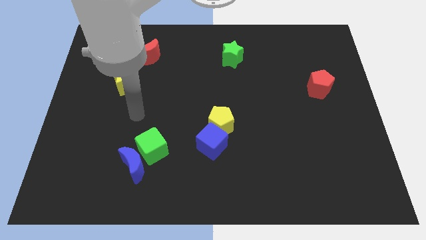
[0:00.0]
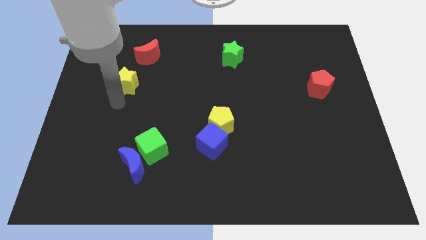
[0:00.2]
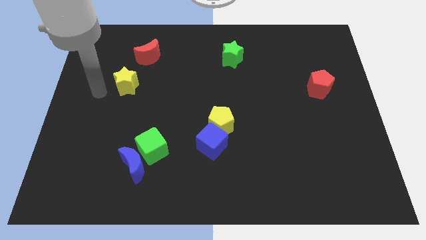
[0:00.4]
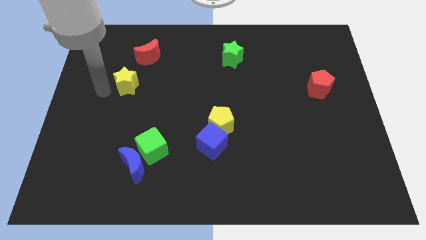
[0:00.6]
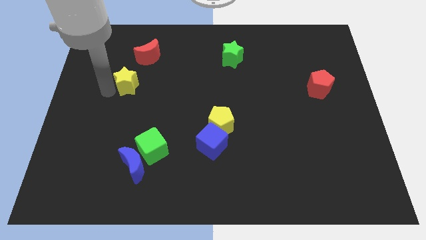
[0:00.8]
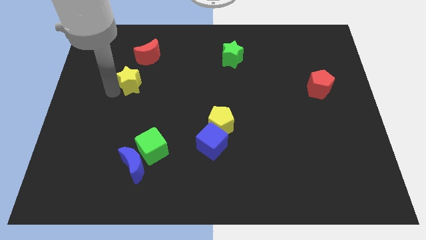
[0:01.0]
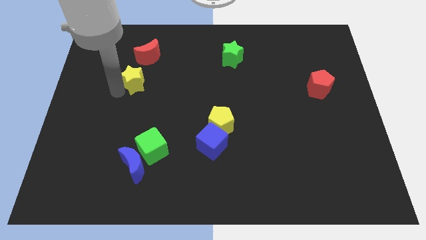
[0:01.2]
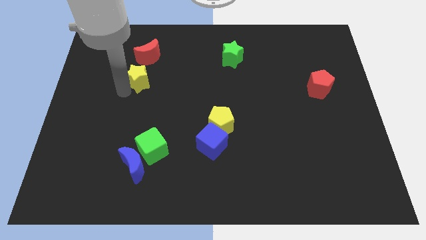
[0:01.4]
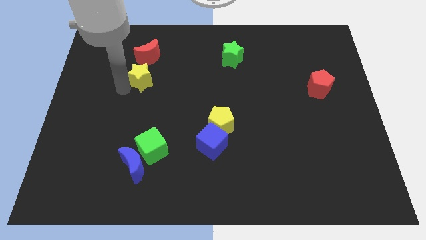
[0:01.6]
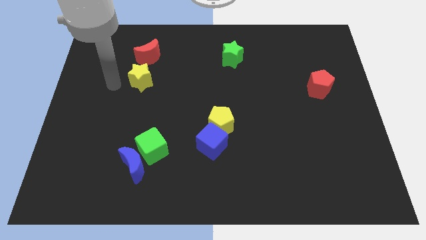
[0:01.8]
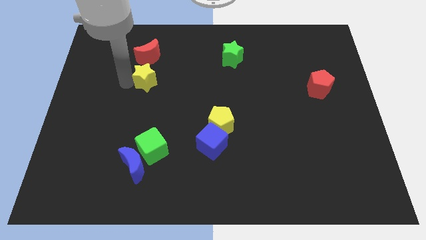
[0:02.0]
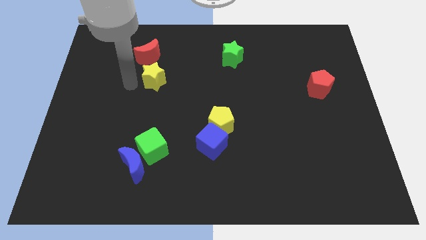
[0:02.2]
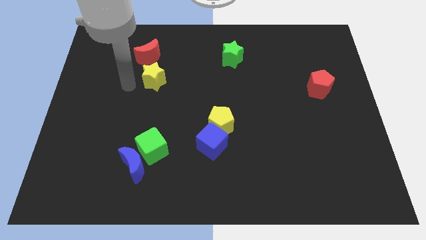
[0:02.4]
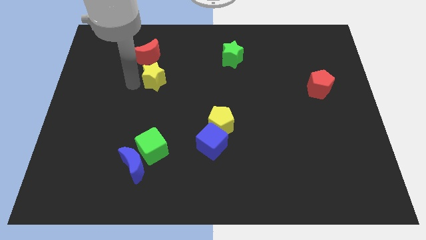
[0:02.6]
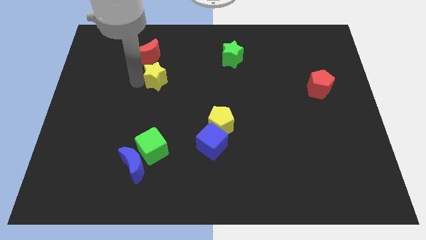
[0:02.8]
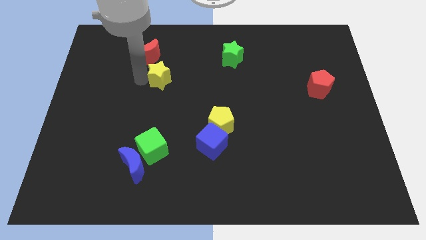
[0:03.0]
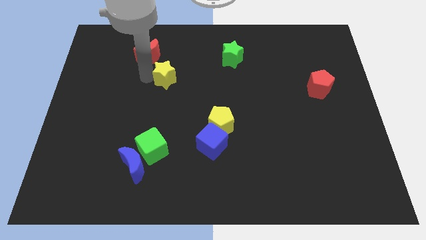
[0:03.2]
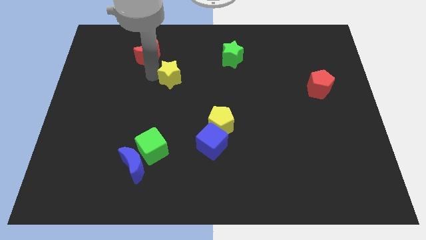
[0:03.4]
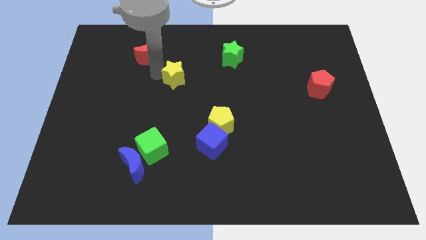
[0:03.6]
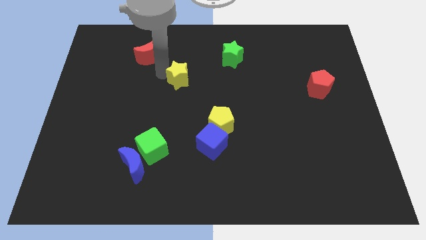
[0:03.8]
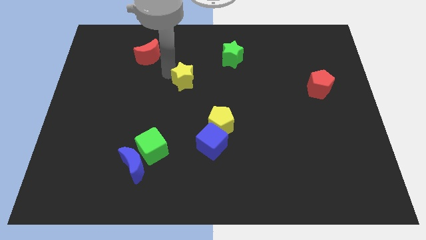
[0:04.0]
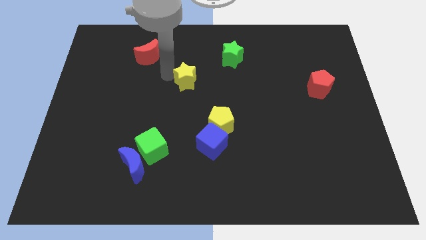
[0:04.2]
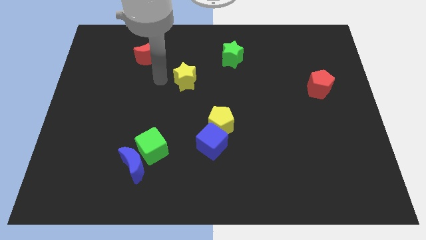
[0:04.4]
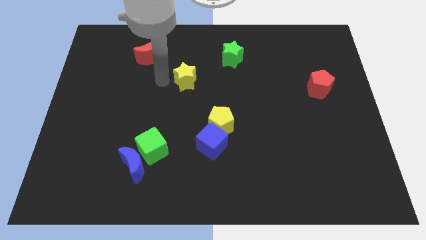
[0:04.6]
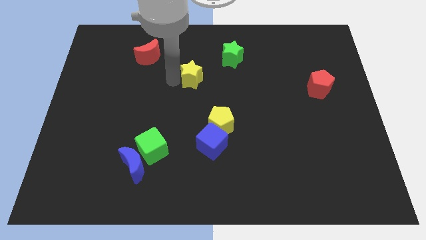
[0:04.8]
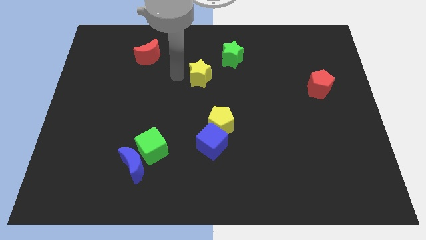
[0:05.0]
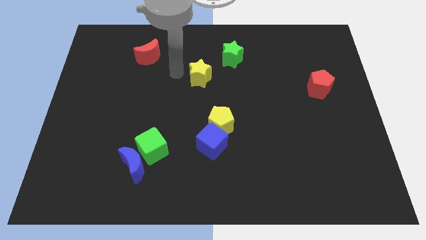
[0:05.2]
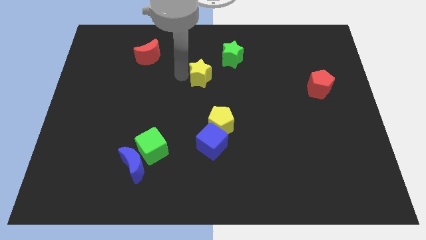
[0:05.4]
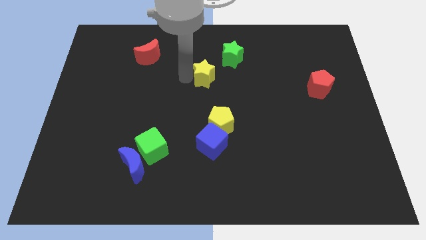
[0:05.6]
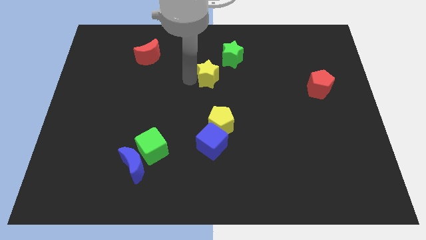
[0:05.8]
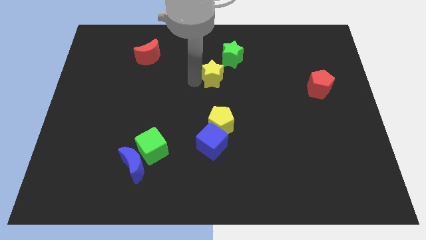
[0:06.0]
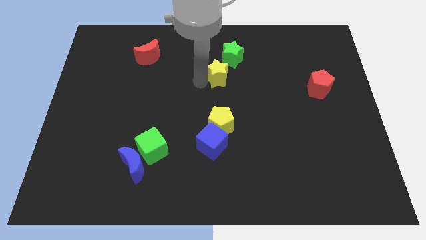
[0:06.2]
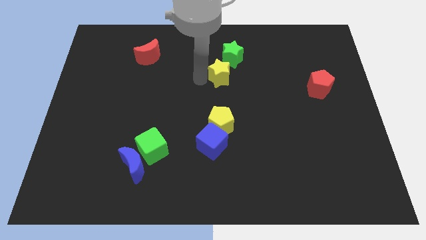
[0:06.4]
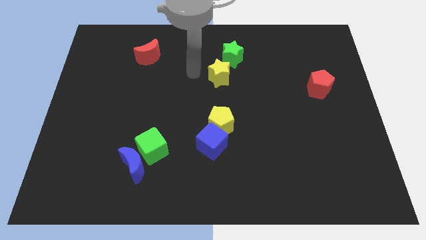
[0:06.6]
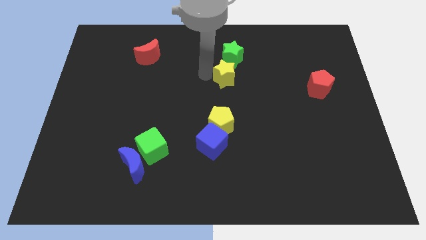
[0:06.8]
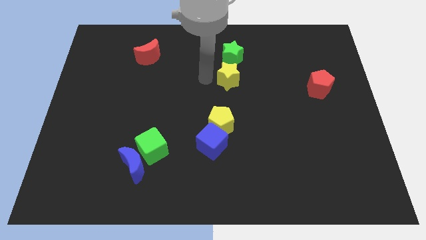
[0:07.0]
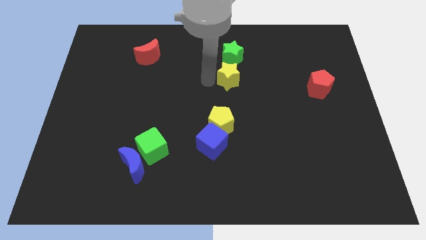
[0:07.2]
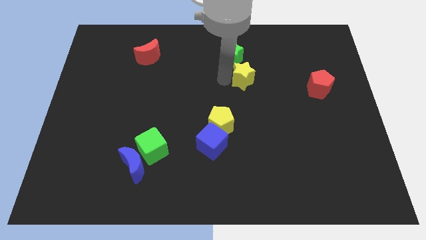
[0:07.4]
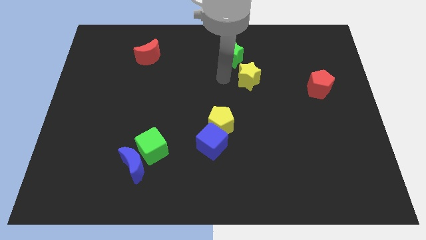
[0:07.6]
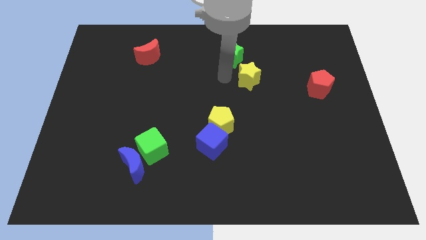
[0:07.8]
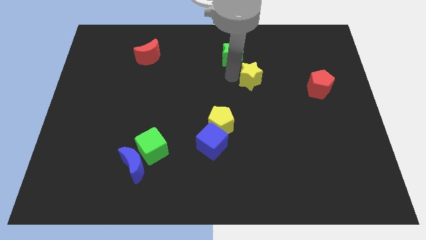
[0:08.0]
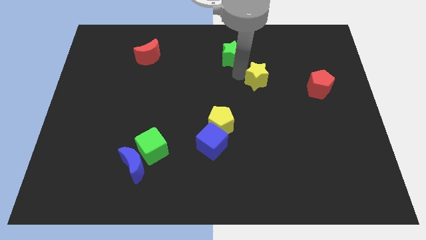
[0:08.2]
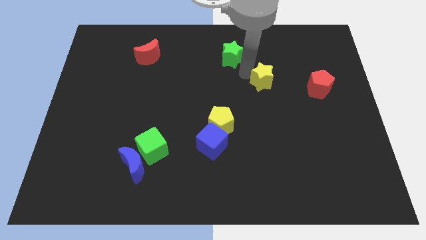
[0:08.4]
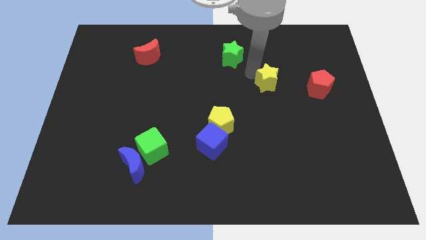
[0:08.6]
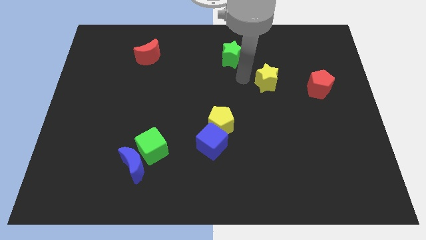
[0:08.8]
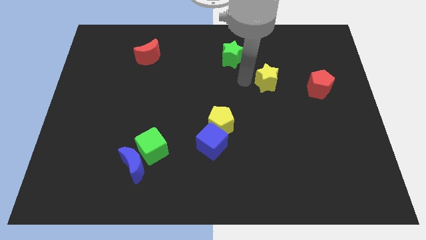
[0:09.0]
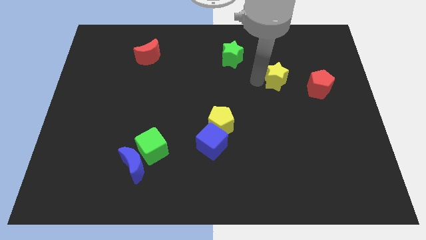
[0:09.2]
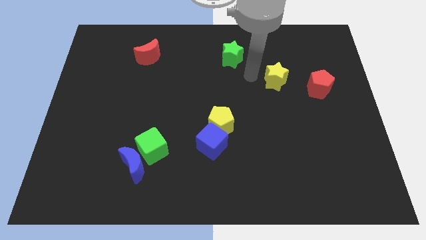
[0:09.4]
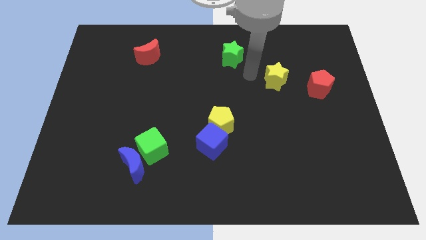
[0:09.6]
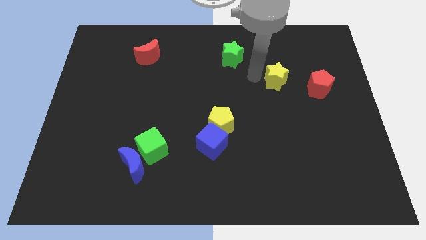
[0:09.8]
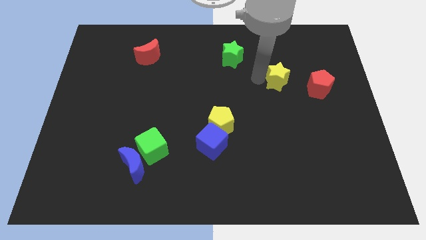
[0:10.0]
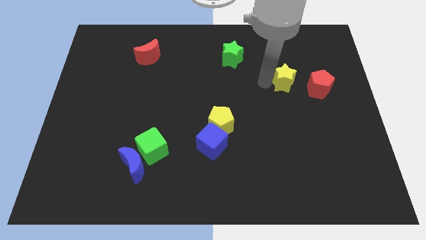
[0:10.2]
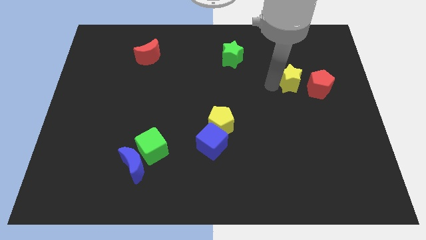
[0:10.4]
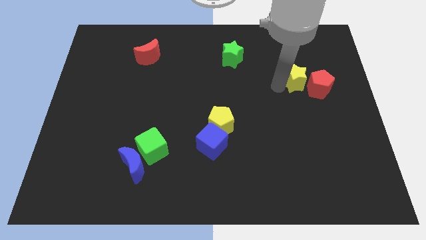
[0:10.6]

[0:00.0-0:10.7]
slide the yellow star towards the red pentagon

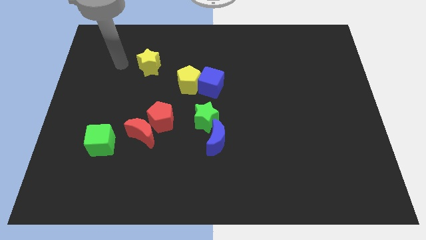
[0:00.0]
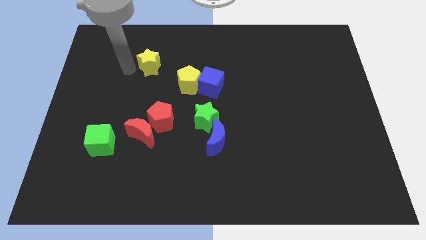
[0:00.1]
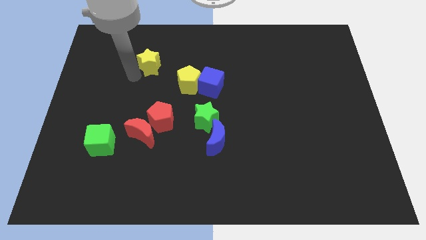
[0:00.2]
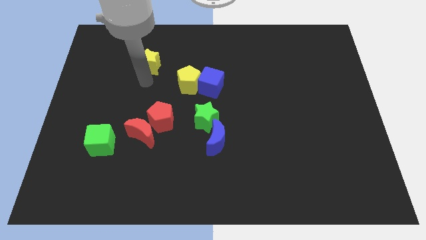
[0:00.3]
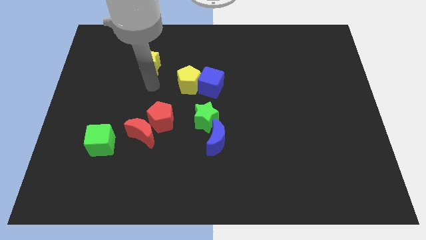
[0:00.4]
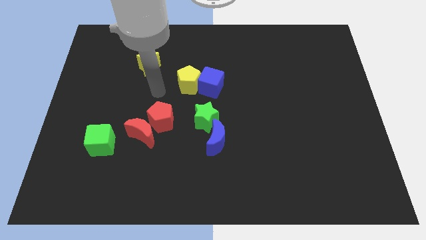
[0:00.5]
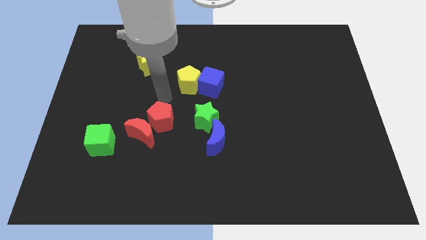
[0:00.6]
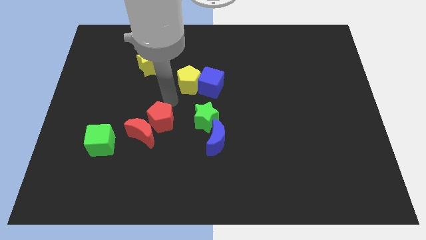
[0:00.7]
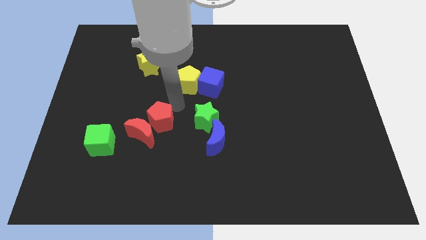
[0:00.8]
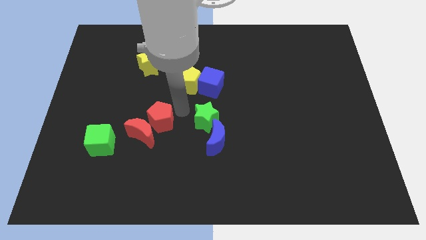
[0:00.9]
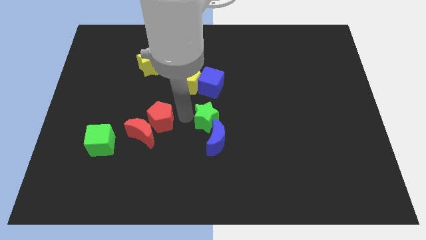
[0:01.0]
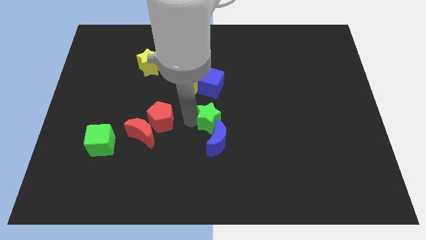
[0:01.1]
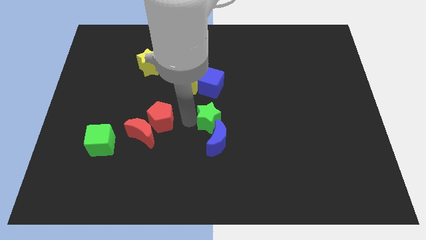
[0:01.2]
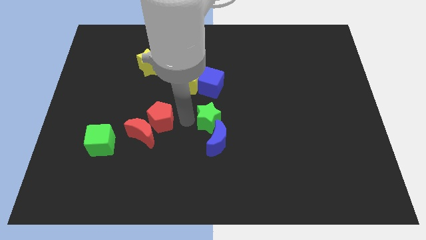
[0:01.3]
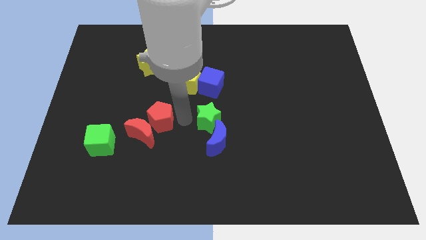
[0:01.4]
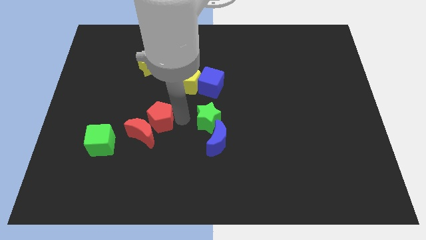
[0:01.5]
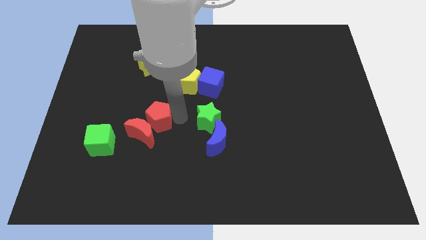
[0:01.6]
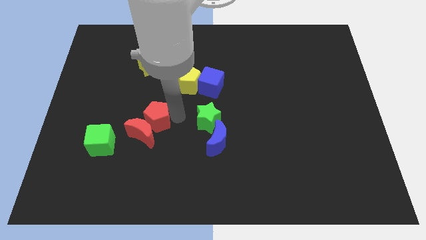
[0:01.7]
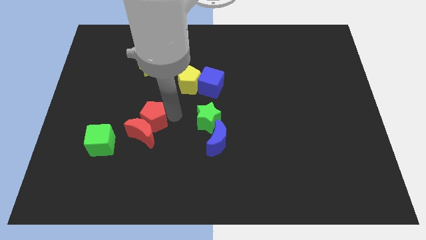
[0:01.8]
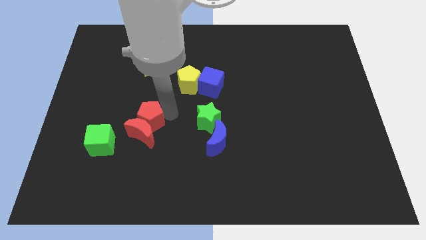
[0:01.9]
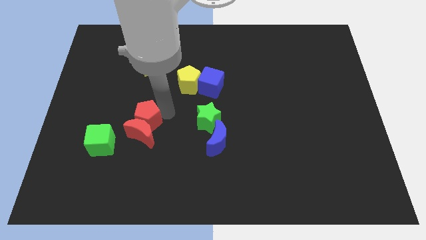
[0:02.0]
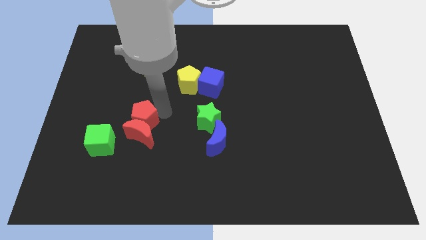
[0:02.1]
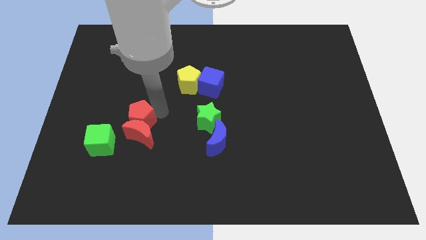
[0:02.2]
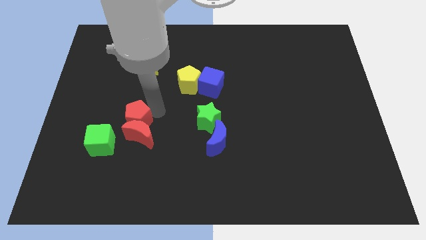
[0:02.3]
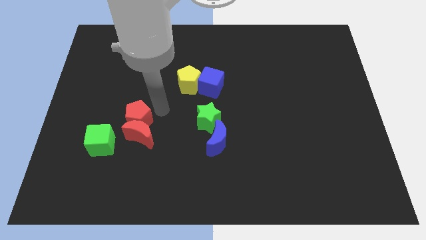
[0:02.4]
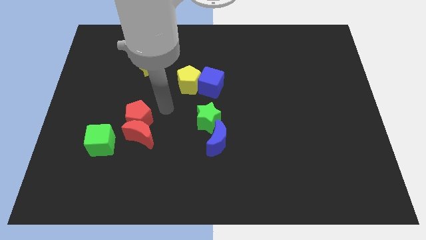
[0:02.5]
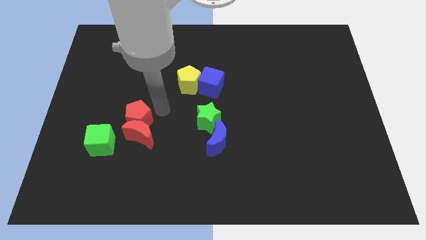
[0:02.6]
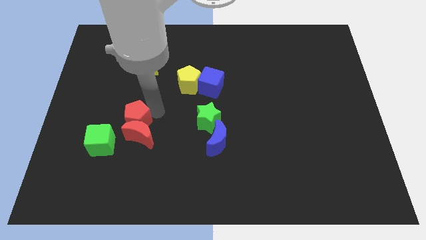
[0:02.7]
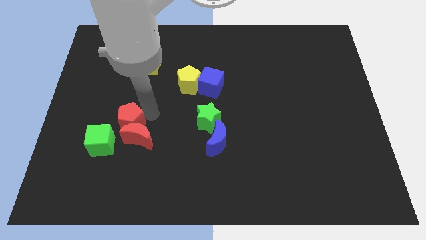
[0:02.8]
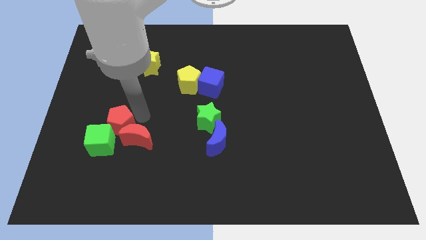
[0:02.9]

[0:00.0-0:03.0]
put the red pentagon towards the green cube

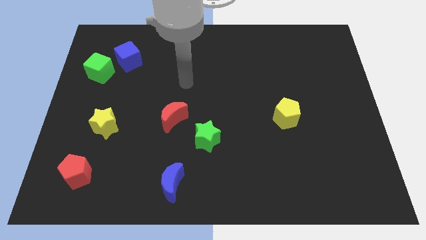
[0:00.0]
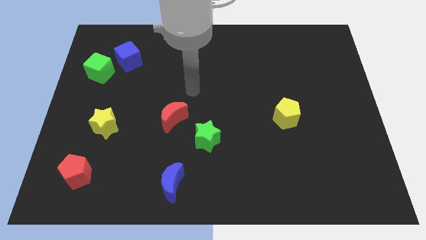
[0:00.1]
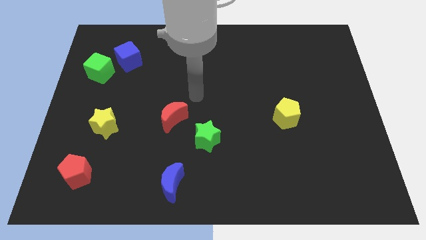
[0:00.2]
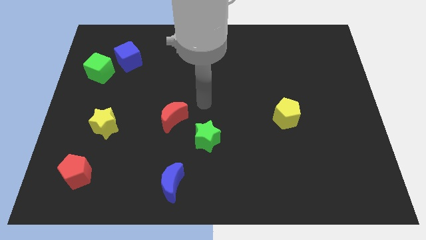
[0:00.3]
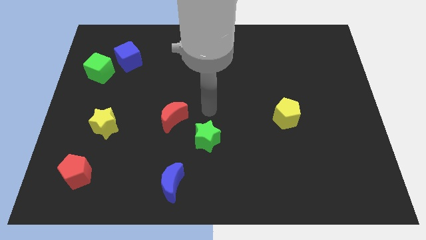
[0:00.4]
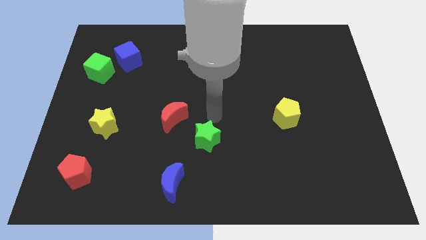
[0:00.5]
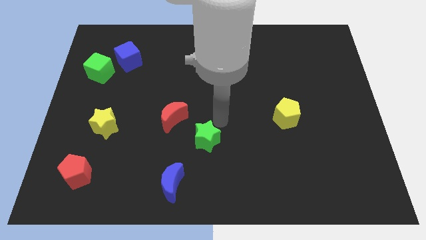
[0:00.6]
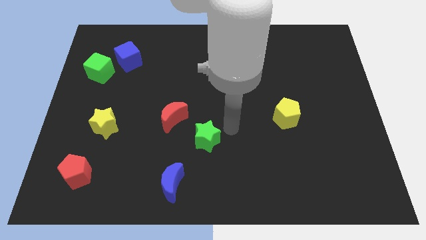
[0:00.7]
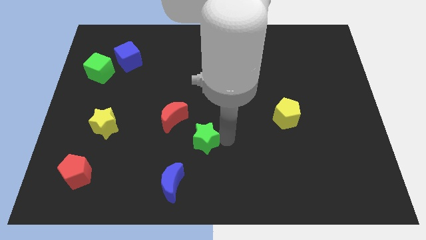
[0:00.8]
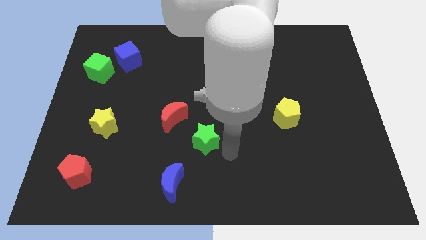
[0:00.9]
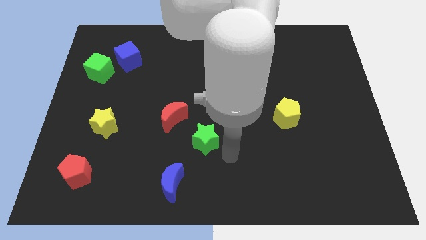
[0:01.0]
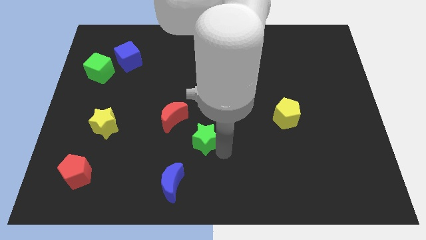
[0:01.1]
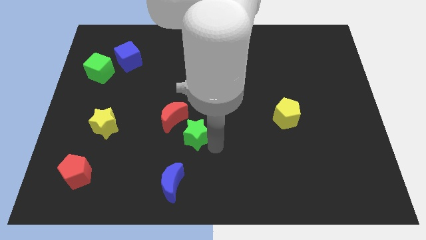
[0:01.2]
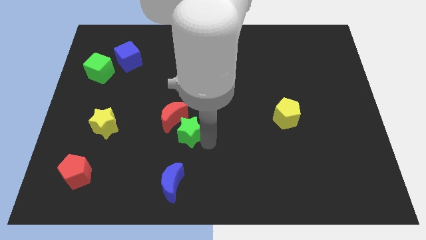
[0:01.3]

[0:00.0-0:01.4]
put the green star to the red moon
